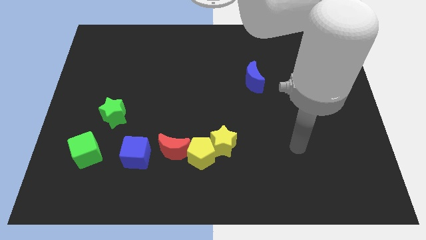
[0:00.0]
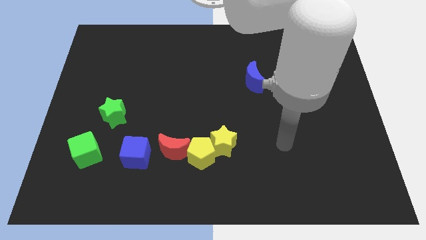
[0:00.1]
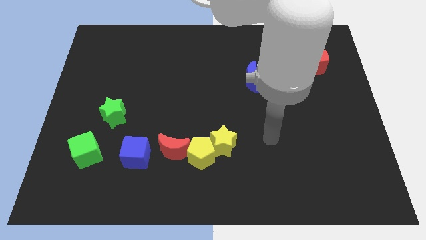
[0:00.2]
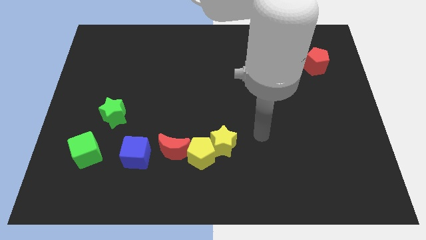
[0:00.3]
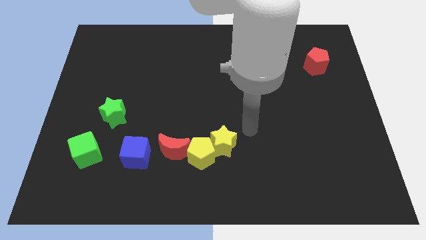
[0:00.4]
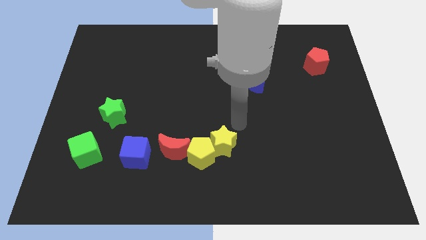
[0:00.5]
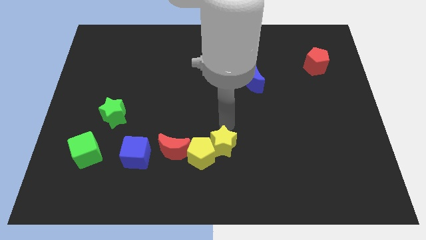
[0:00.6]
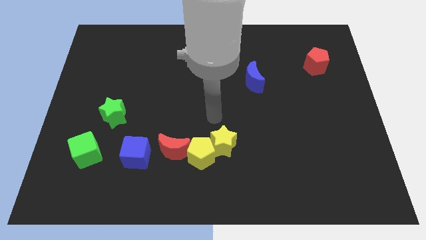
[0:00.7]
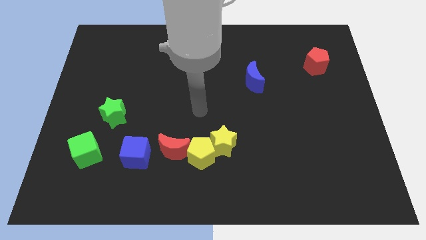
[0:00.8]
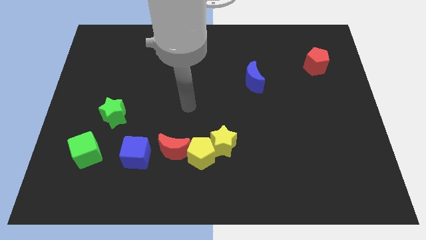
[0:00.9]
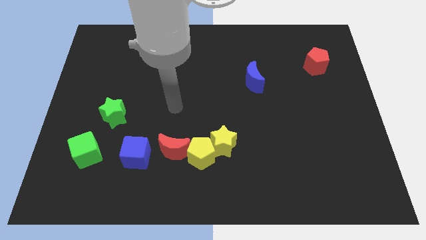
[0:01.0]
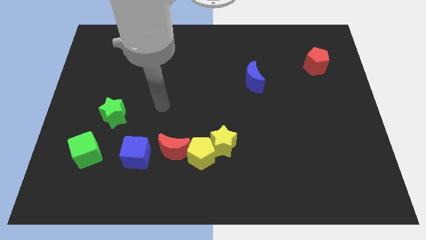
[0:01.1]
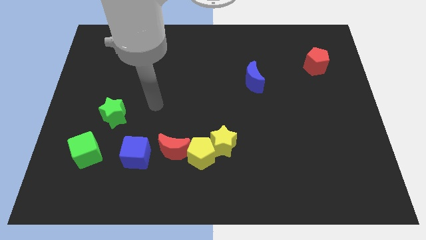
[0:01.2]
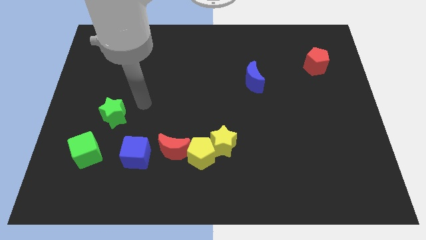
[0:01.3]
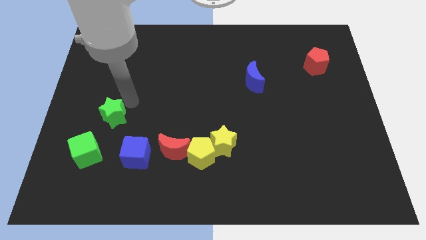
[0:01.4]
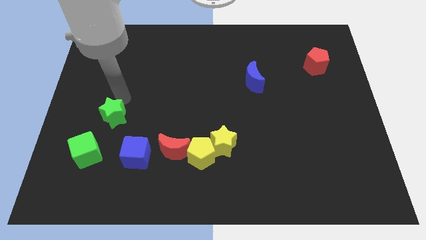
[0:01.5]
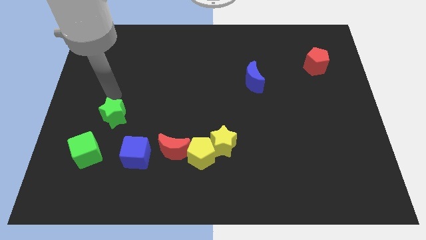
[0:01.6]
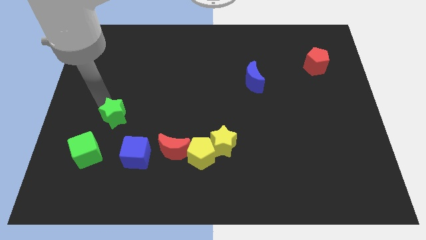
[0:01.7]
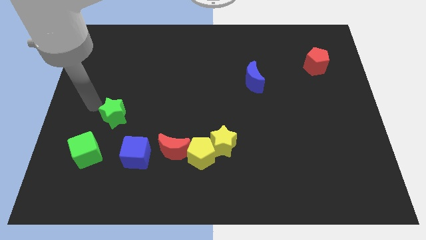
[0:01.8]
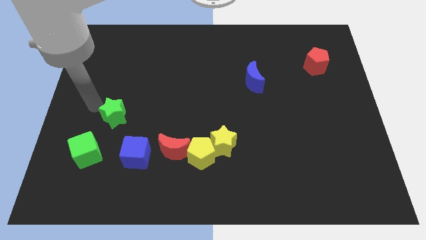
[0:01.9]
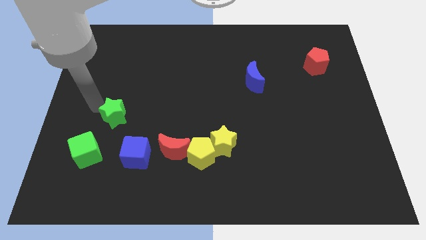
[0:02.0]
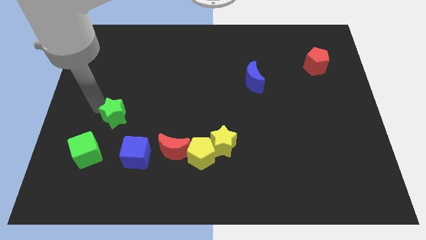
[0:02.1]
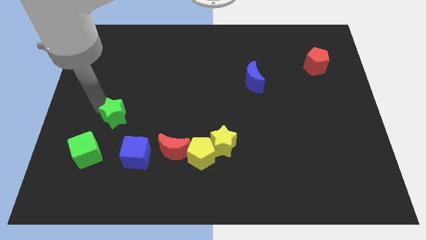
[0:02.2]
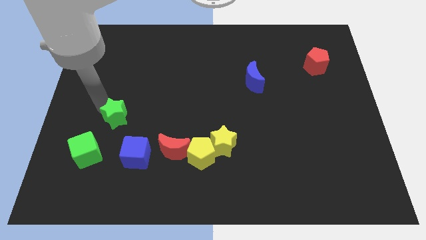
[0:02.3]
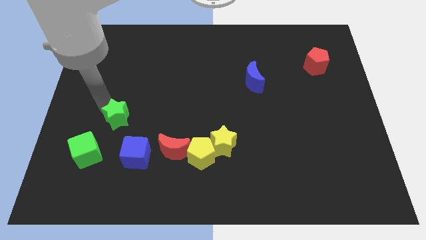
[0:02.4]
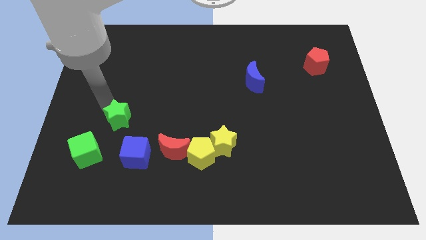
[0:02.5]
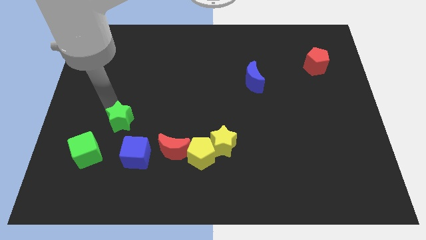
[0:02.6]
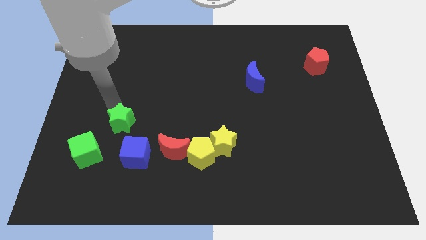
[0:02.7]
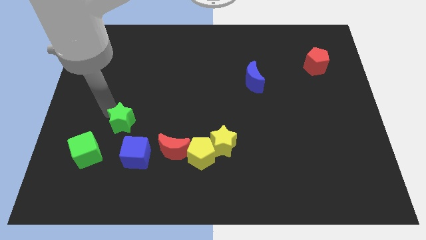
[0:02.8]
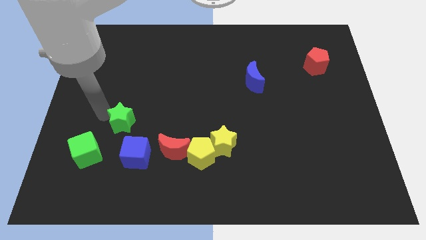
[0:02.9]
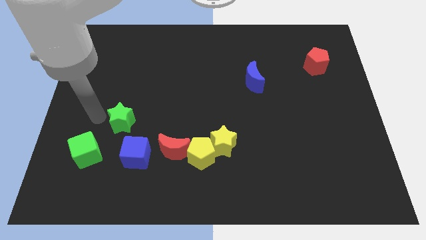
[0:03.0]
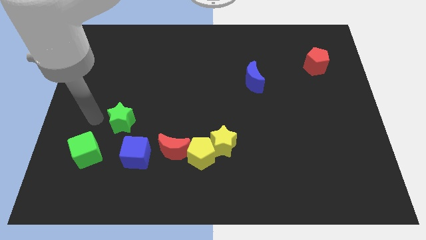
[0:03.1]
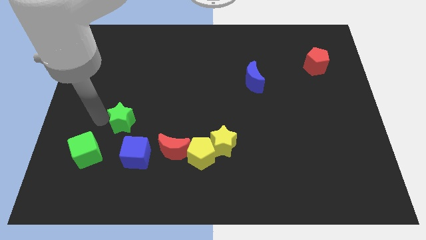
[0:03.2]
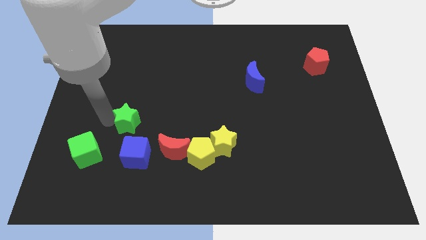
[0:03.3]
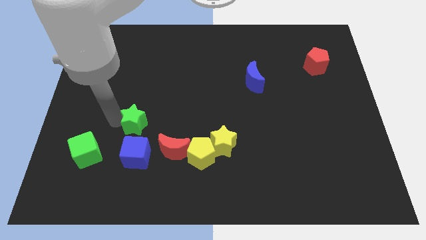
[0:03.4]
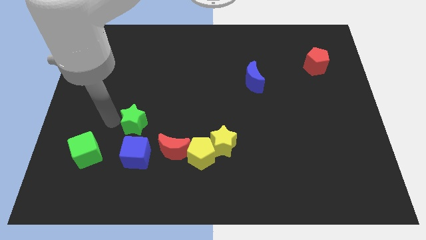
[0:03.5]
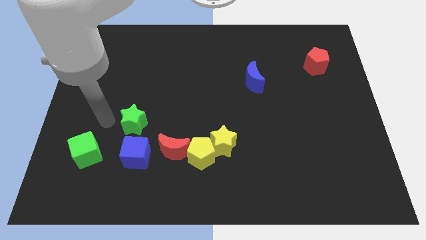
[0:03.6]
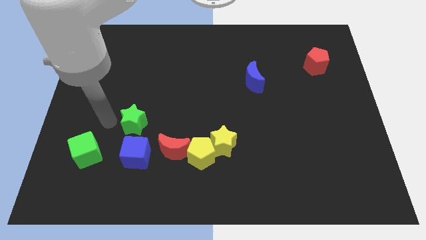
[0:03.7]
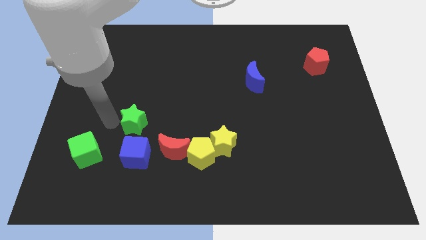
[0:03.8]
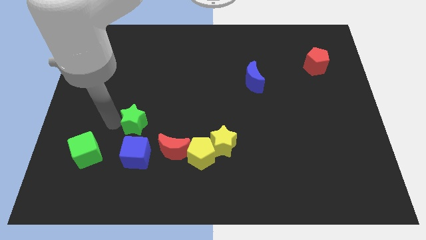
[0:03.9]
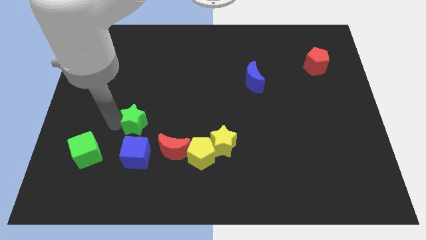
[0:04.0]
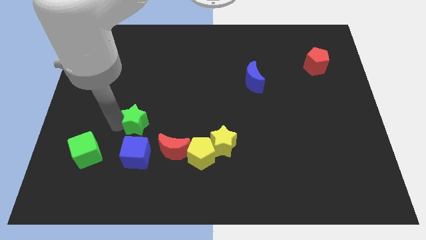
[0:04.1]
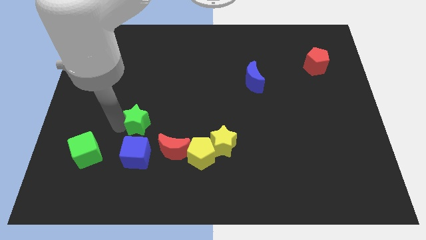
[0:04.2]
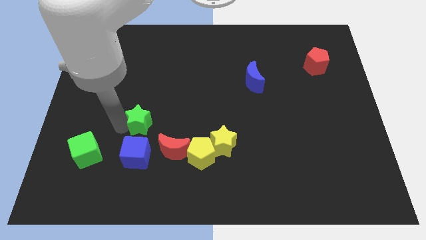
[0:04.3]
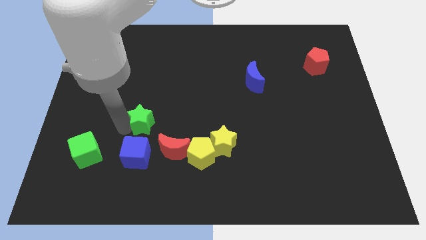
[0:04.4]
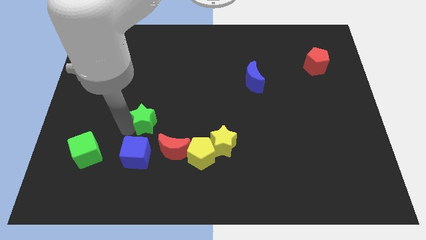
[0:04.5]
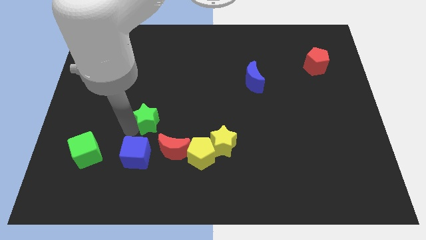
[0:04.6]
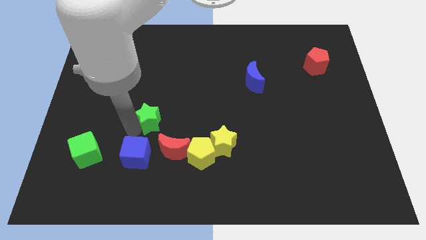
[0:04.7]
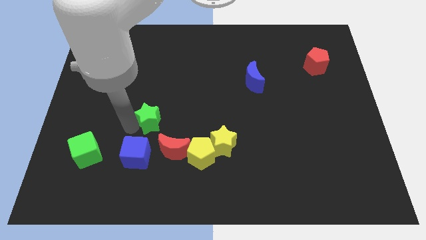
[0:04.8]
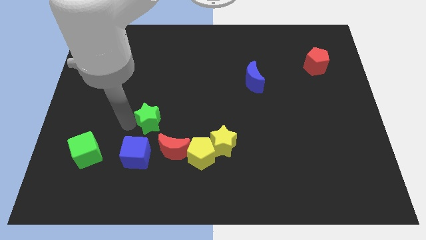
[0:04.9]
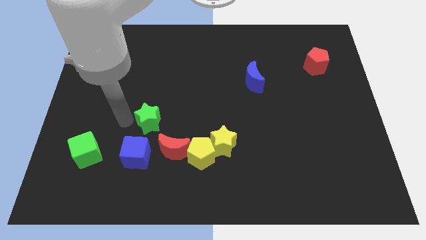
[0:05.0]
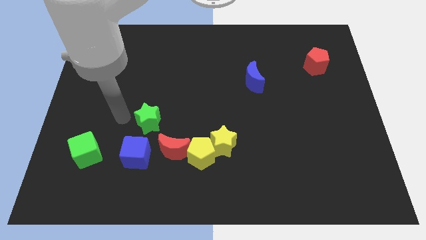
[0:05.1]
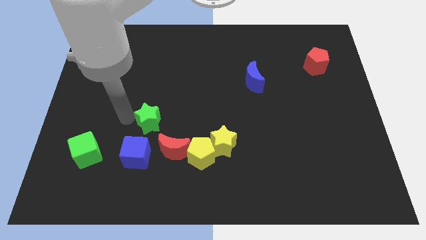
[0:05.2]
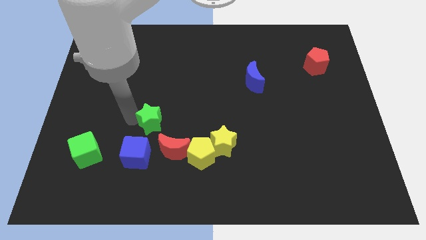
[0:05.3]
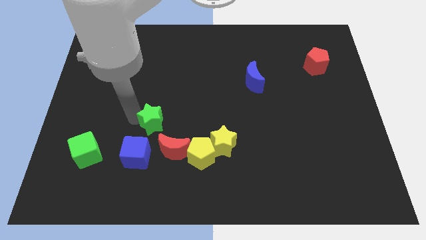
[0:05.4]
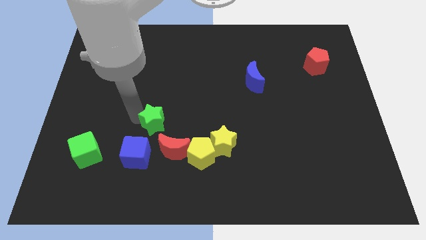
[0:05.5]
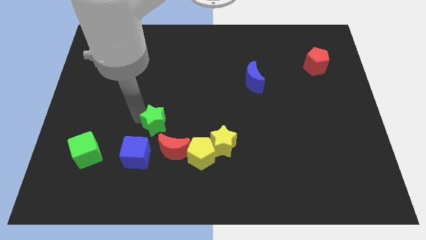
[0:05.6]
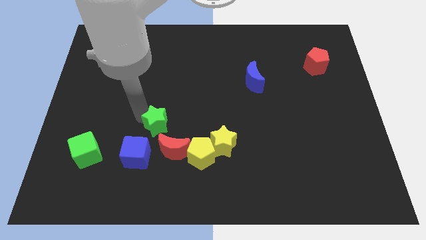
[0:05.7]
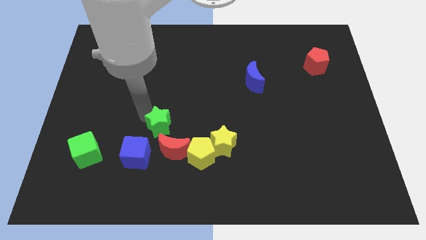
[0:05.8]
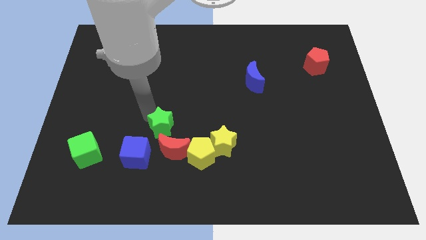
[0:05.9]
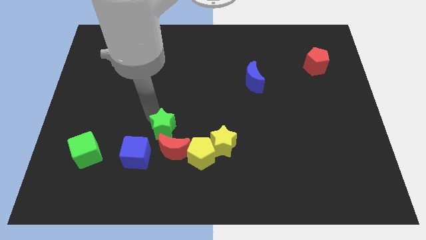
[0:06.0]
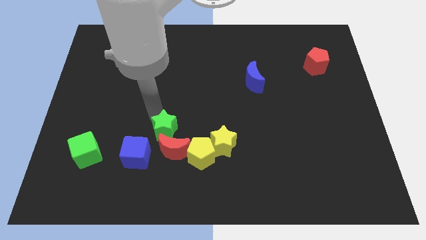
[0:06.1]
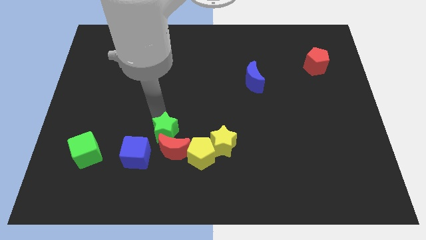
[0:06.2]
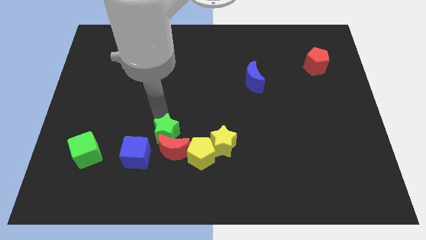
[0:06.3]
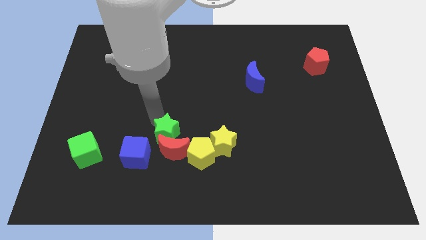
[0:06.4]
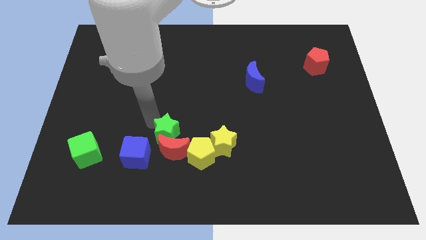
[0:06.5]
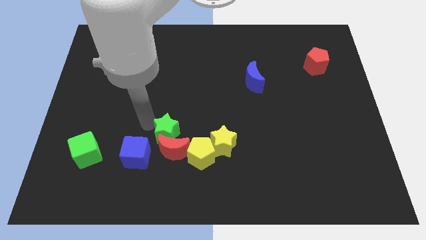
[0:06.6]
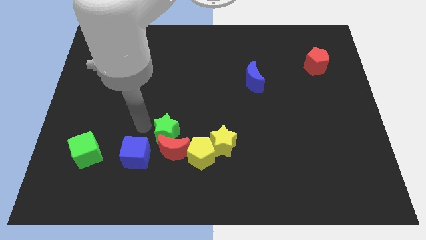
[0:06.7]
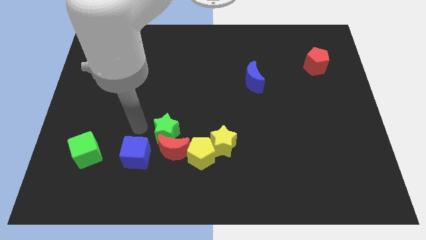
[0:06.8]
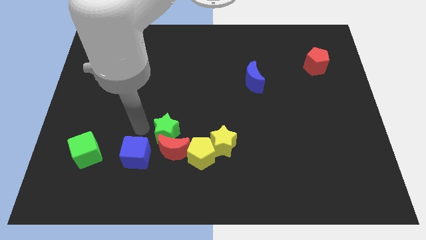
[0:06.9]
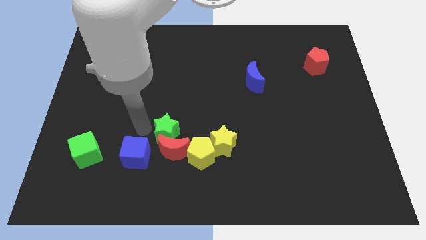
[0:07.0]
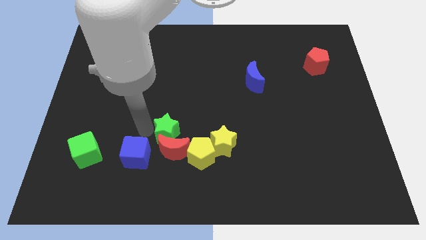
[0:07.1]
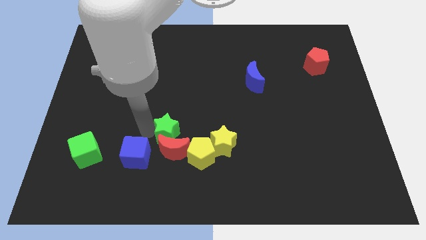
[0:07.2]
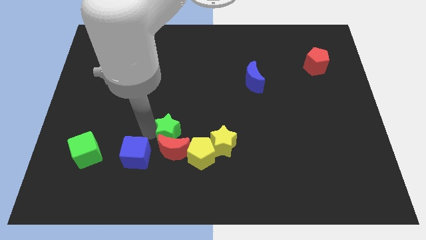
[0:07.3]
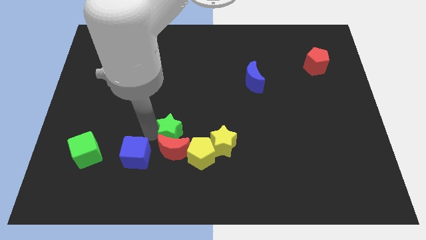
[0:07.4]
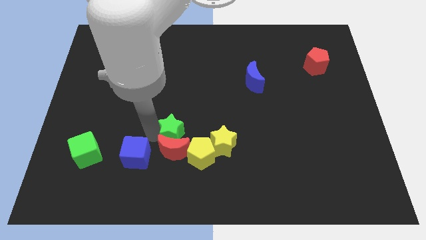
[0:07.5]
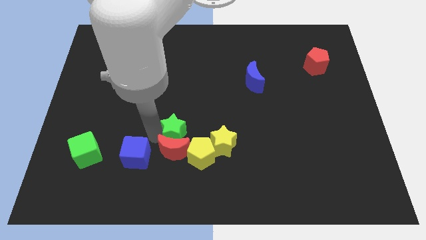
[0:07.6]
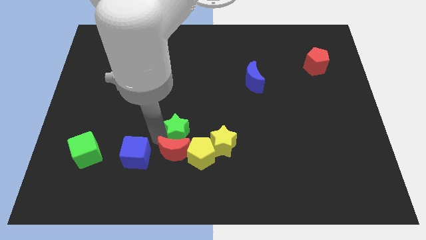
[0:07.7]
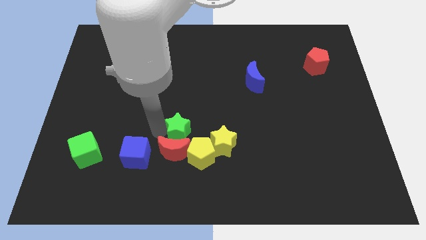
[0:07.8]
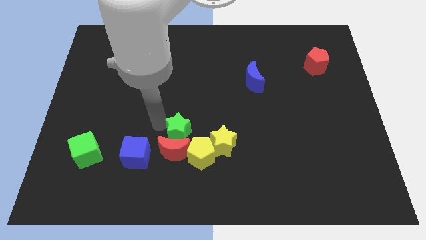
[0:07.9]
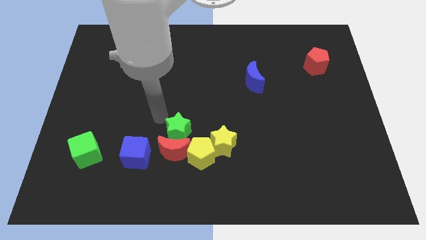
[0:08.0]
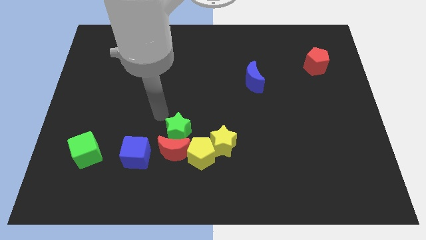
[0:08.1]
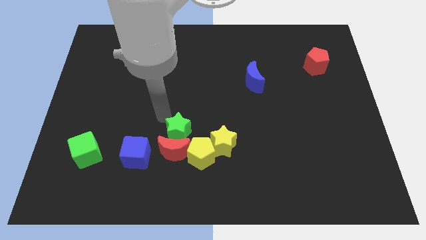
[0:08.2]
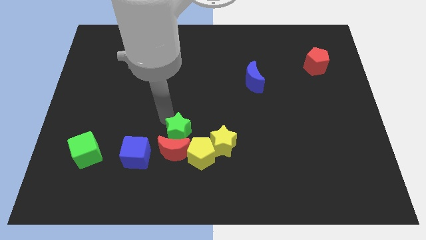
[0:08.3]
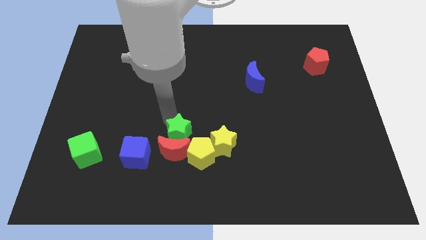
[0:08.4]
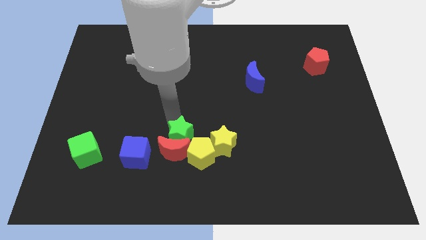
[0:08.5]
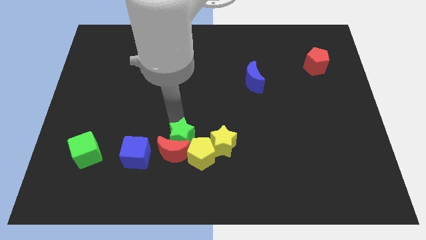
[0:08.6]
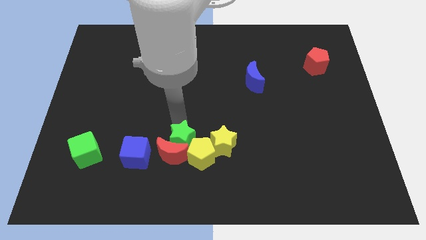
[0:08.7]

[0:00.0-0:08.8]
move the green star close to the yellow pentagon
